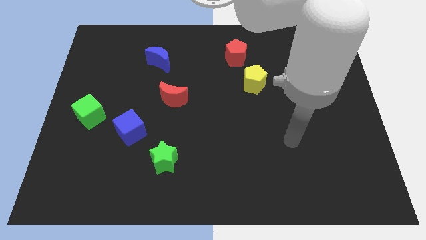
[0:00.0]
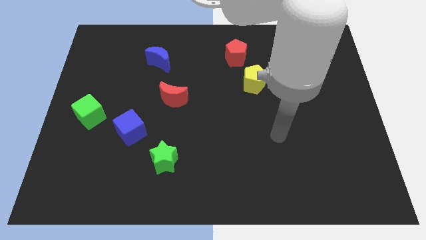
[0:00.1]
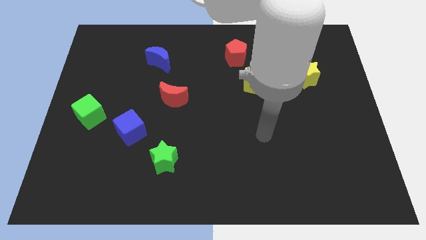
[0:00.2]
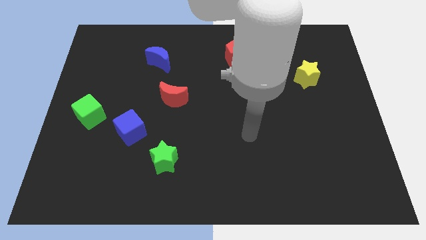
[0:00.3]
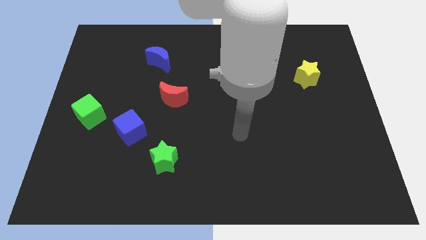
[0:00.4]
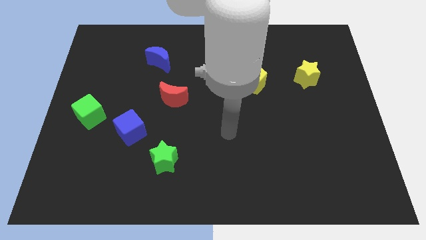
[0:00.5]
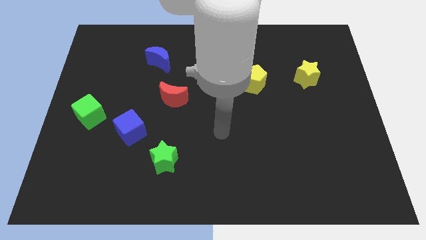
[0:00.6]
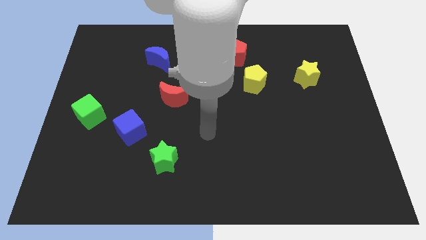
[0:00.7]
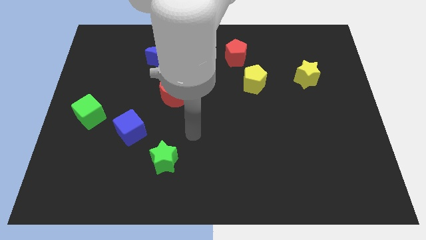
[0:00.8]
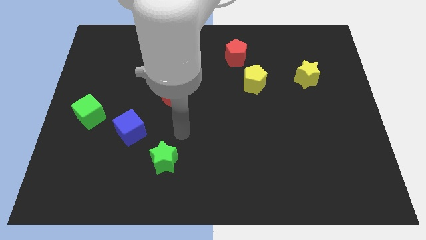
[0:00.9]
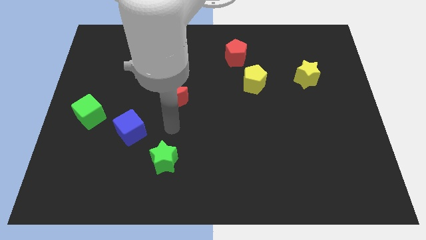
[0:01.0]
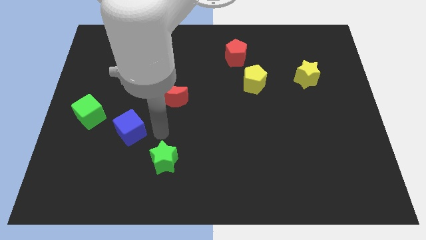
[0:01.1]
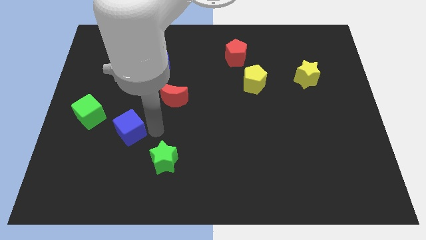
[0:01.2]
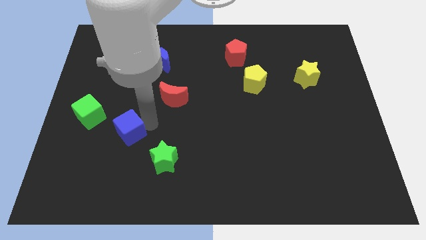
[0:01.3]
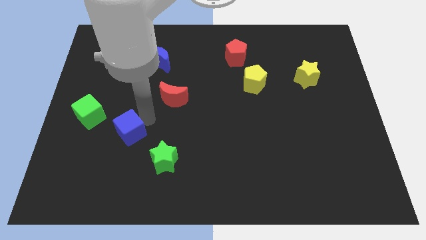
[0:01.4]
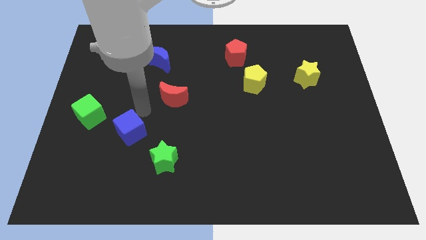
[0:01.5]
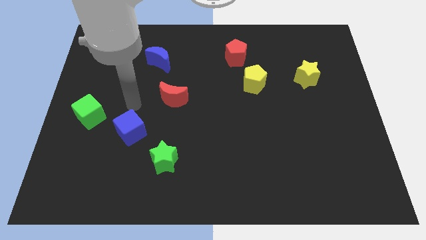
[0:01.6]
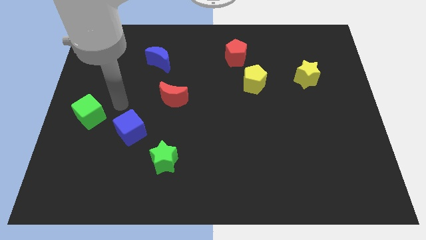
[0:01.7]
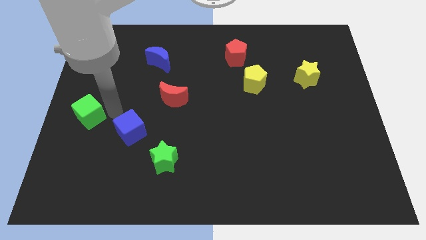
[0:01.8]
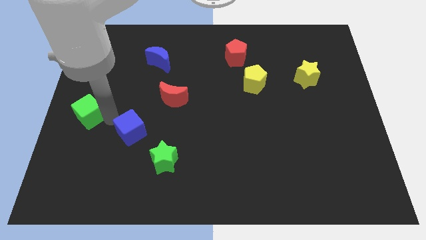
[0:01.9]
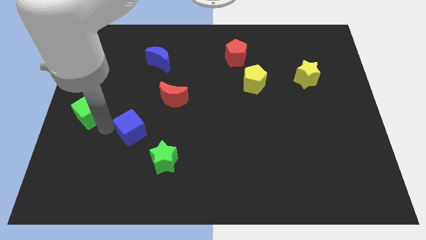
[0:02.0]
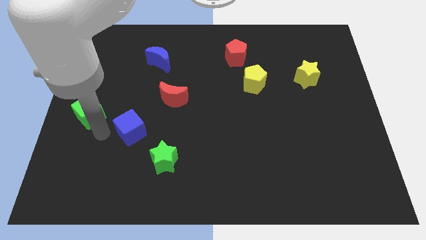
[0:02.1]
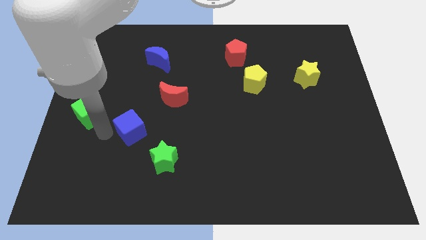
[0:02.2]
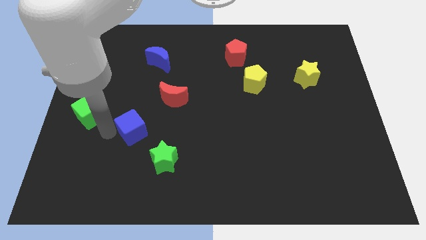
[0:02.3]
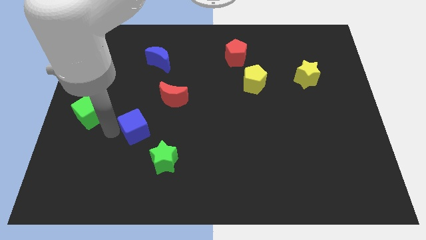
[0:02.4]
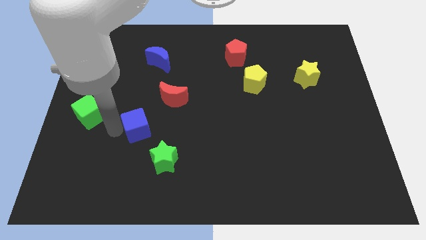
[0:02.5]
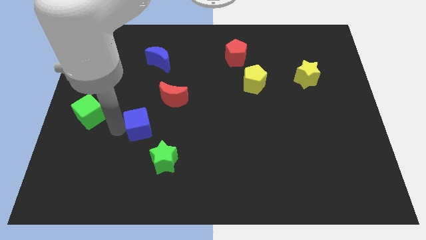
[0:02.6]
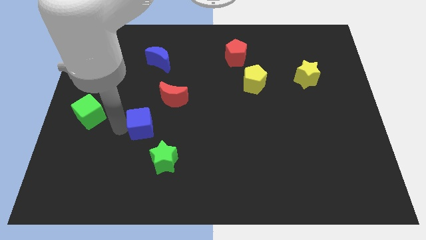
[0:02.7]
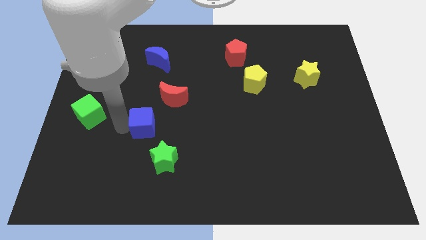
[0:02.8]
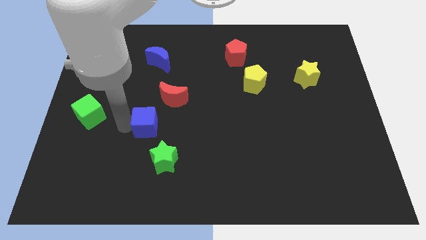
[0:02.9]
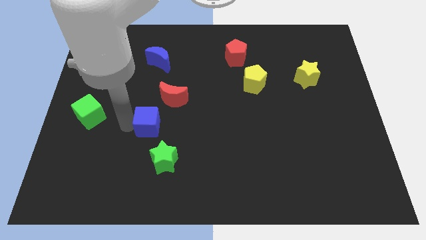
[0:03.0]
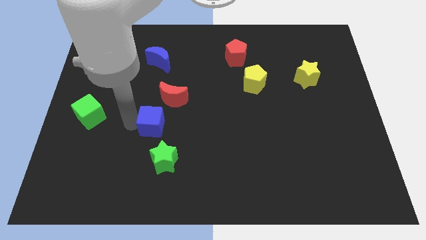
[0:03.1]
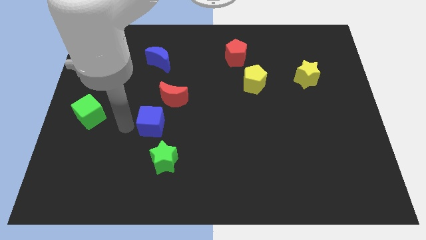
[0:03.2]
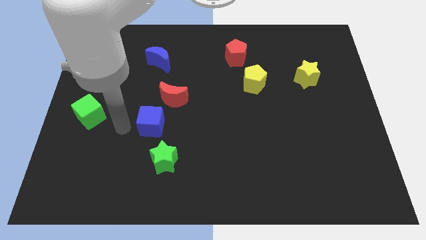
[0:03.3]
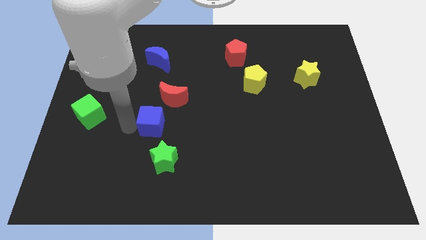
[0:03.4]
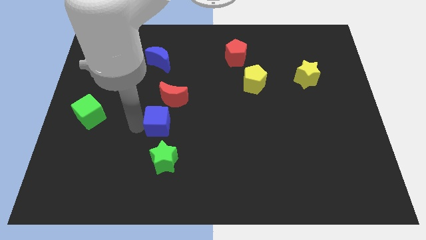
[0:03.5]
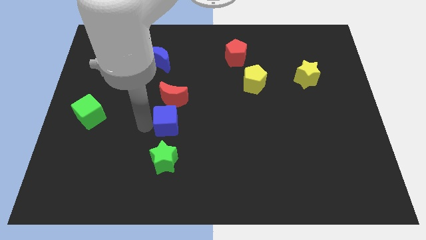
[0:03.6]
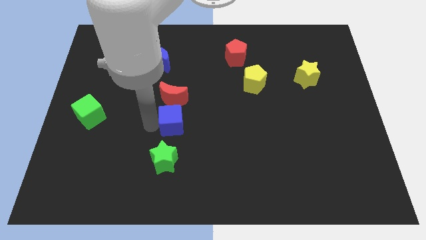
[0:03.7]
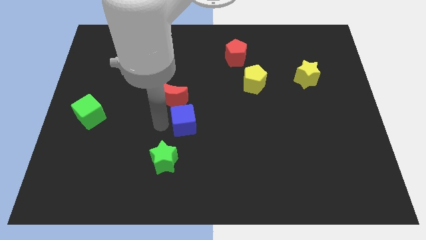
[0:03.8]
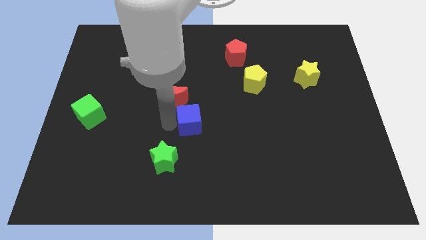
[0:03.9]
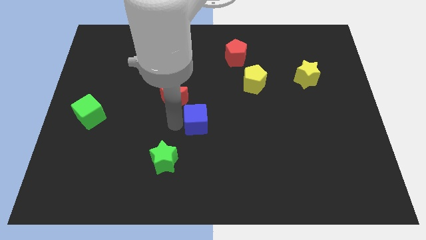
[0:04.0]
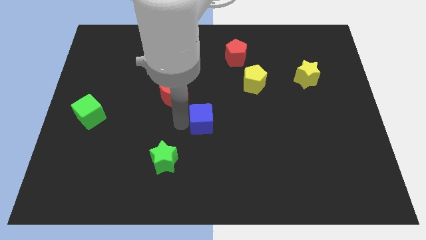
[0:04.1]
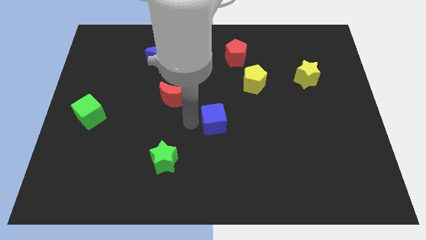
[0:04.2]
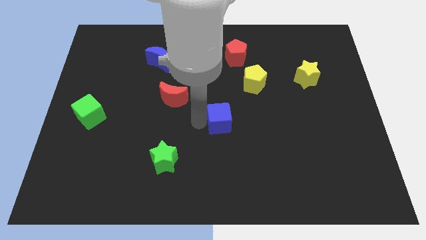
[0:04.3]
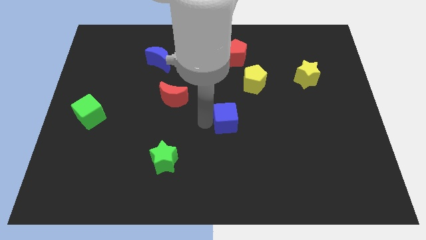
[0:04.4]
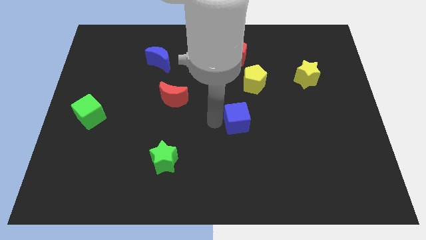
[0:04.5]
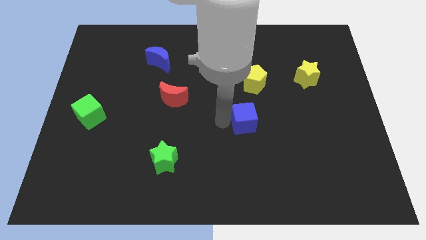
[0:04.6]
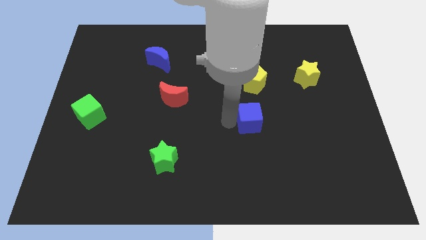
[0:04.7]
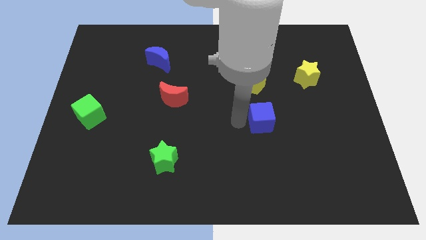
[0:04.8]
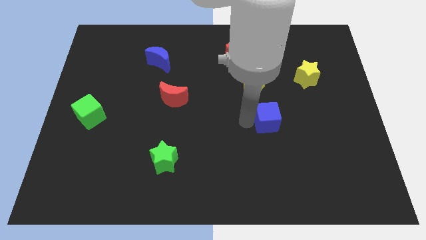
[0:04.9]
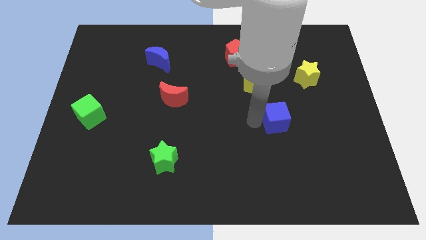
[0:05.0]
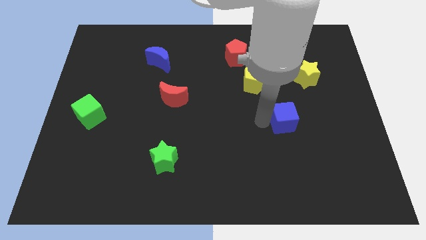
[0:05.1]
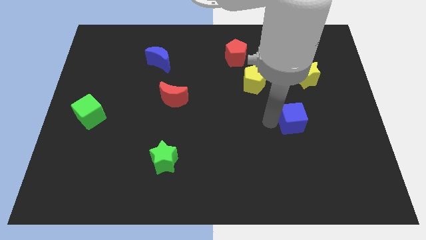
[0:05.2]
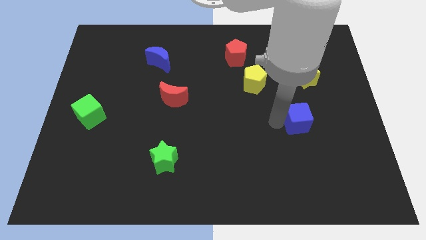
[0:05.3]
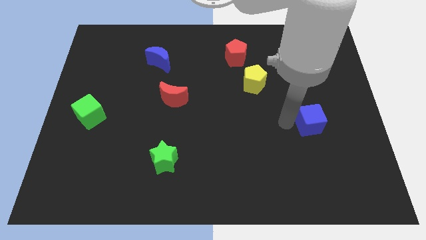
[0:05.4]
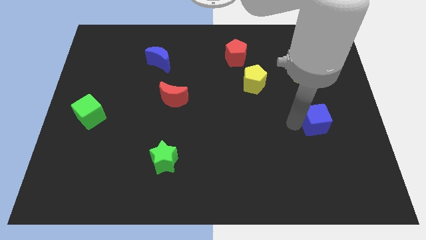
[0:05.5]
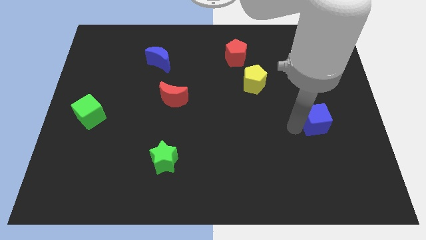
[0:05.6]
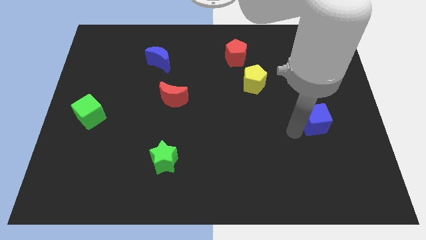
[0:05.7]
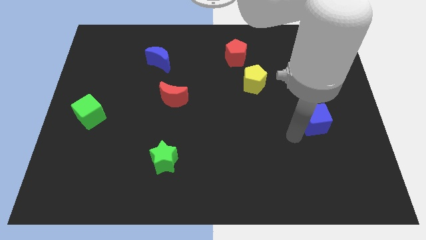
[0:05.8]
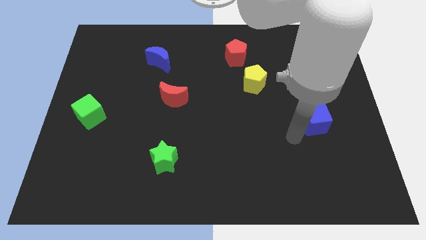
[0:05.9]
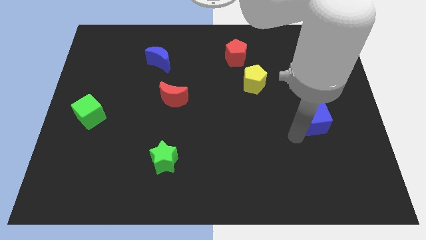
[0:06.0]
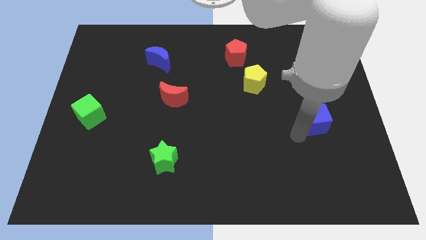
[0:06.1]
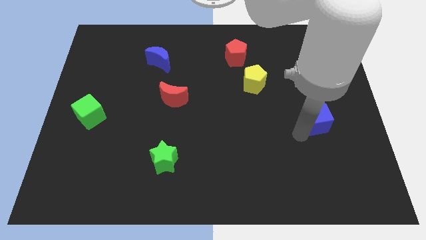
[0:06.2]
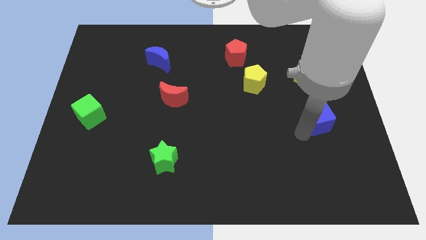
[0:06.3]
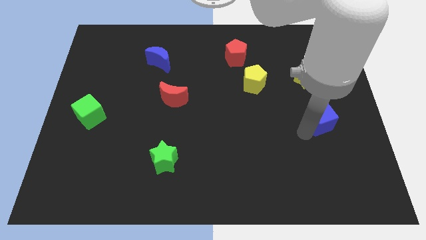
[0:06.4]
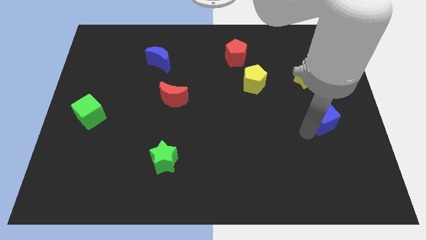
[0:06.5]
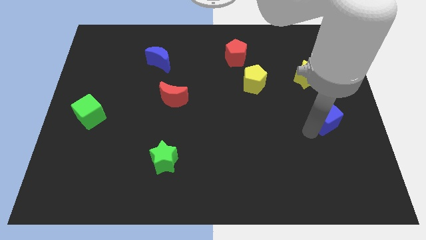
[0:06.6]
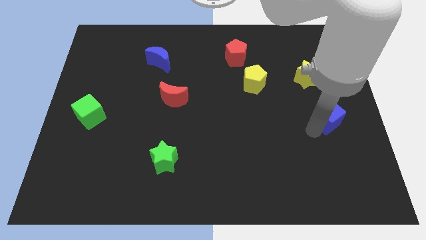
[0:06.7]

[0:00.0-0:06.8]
push the blue cube to the right side of the board
